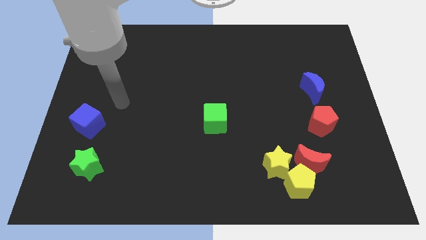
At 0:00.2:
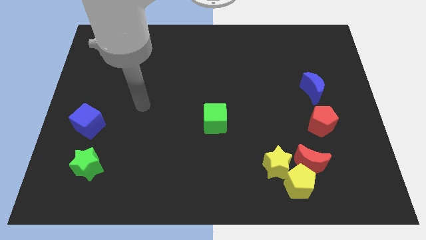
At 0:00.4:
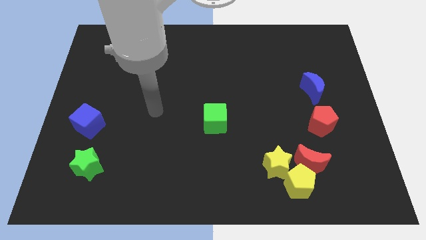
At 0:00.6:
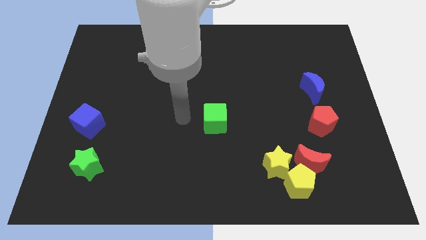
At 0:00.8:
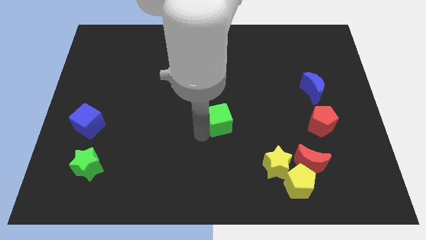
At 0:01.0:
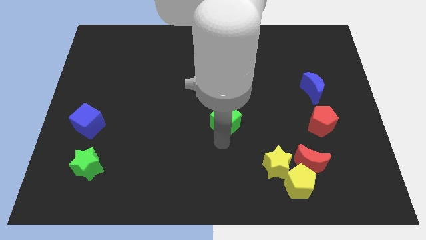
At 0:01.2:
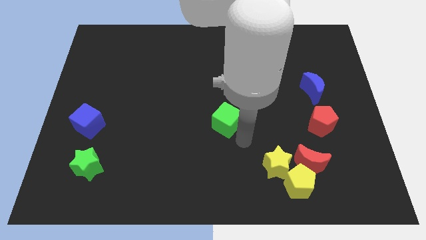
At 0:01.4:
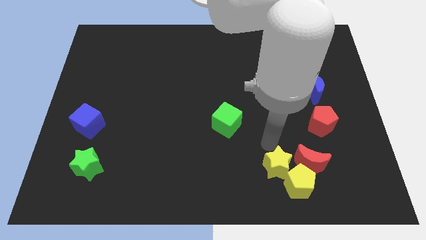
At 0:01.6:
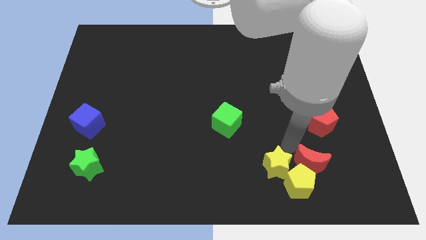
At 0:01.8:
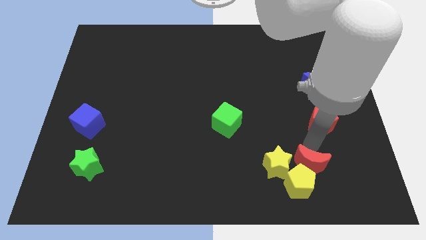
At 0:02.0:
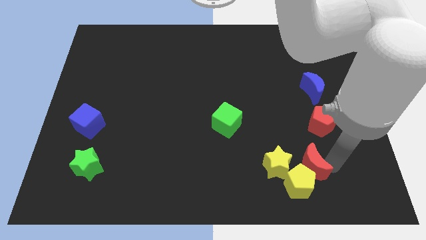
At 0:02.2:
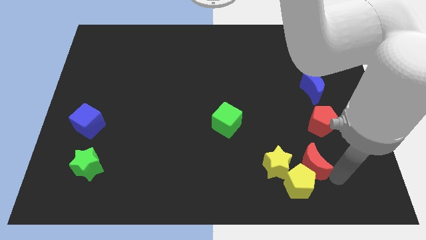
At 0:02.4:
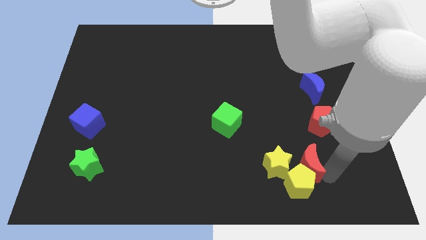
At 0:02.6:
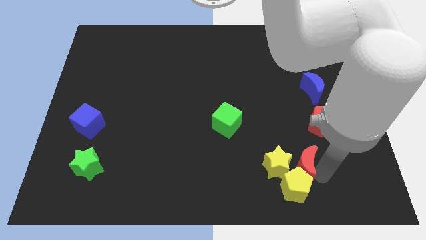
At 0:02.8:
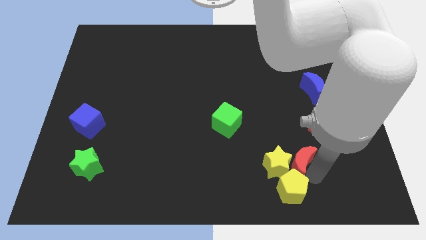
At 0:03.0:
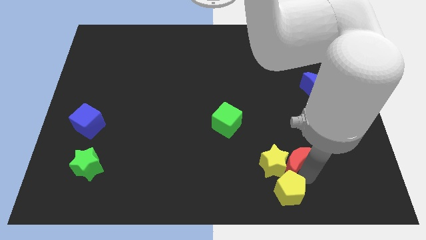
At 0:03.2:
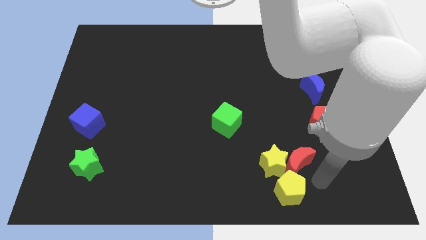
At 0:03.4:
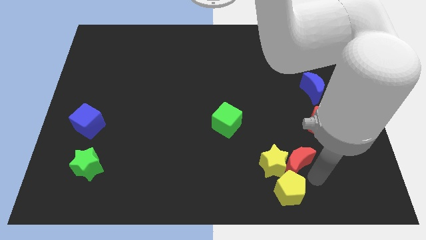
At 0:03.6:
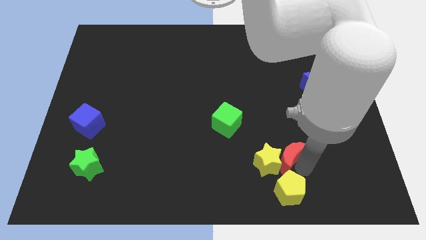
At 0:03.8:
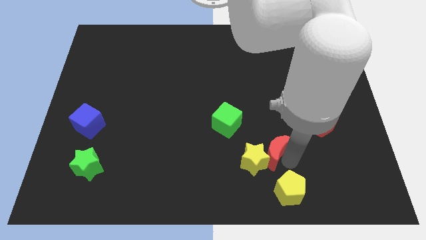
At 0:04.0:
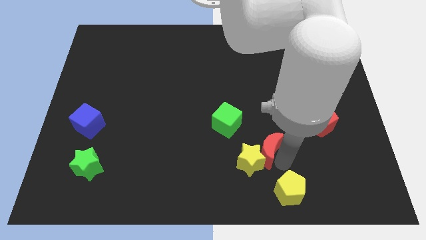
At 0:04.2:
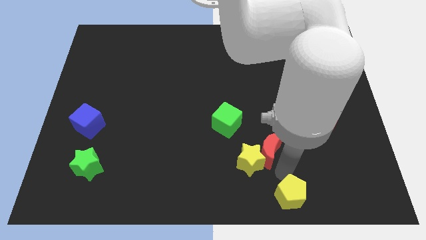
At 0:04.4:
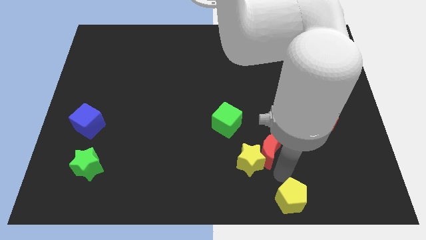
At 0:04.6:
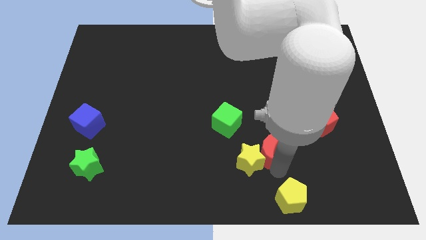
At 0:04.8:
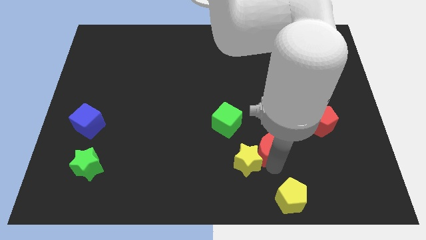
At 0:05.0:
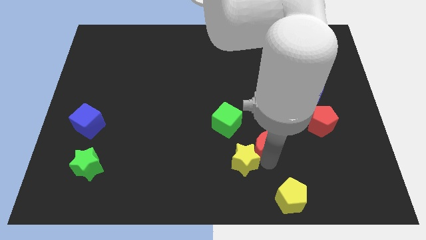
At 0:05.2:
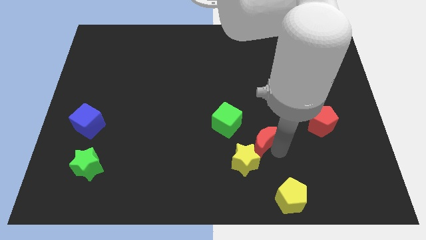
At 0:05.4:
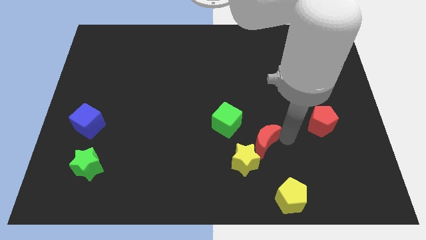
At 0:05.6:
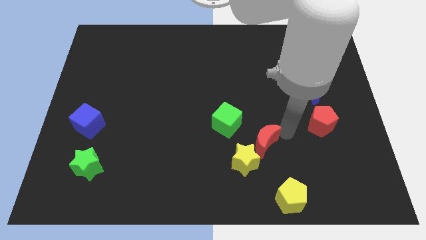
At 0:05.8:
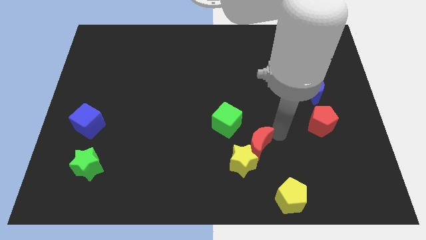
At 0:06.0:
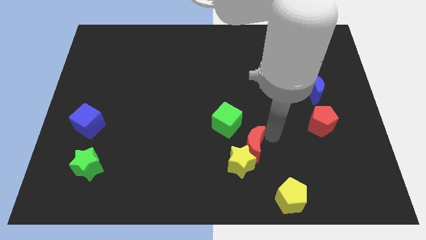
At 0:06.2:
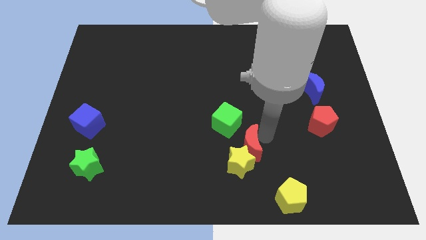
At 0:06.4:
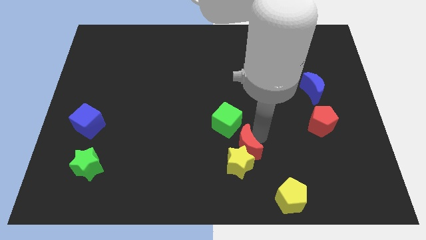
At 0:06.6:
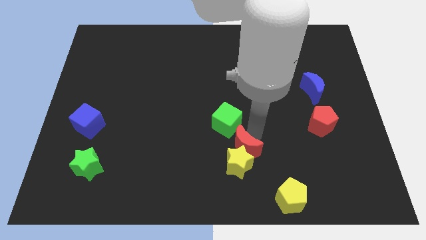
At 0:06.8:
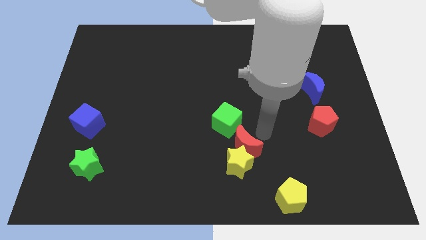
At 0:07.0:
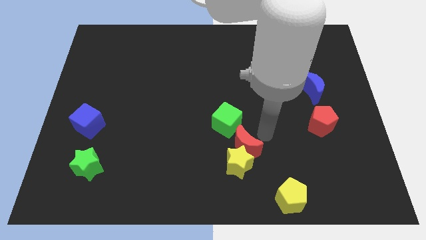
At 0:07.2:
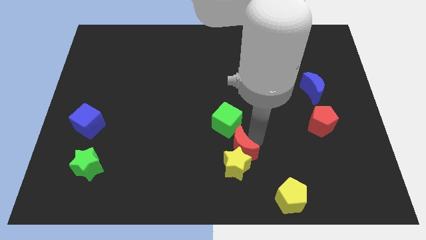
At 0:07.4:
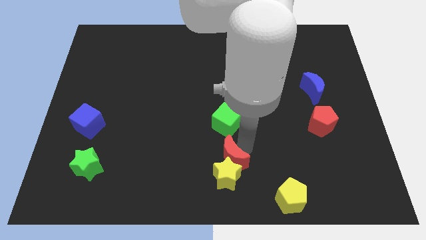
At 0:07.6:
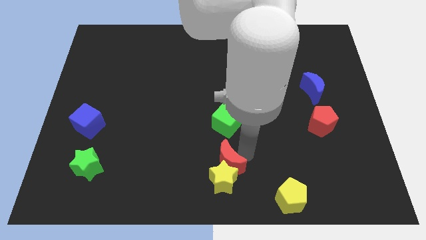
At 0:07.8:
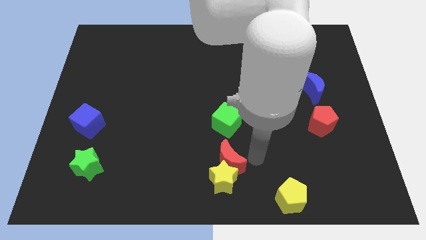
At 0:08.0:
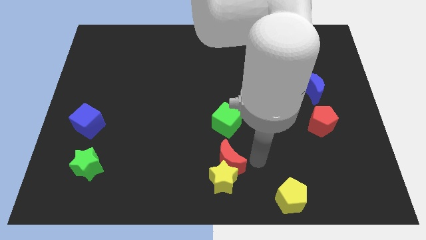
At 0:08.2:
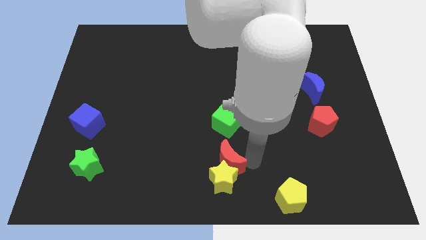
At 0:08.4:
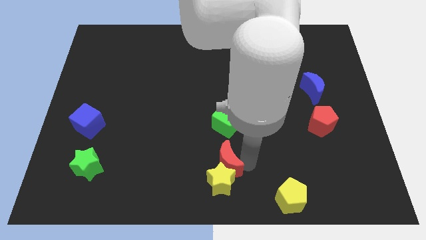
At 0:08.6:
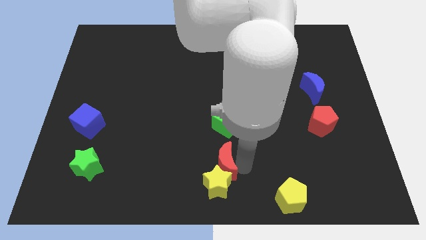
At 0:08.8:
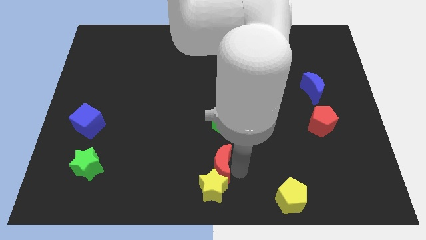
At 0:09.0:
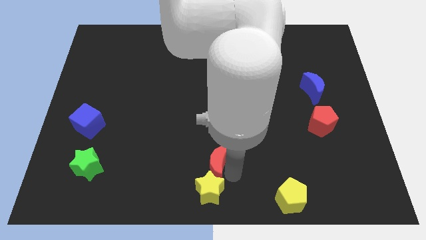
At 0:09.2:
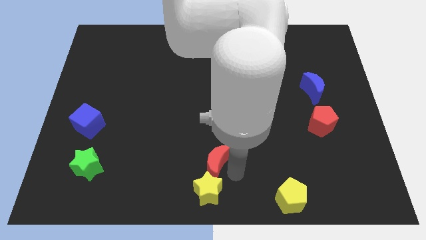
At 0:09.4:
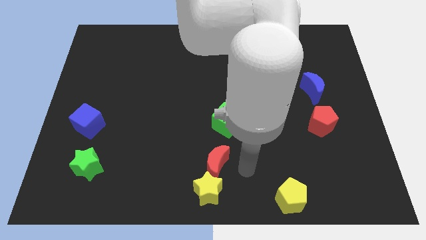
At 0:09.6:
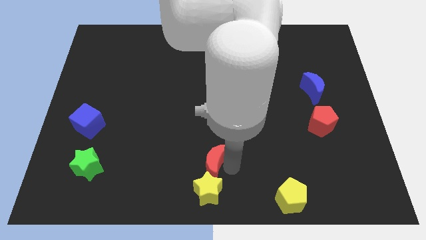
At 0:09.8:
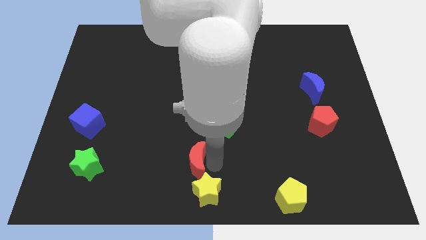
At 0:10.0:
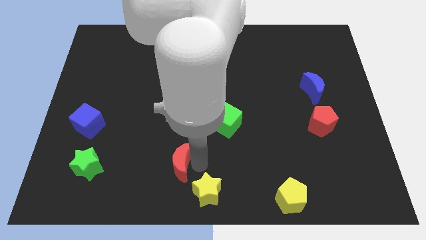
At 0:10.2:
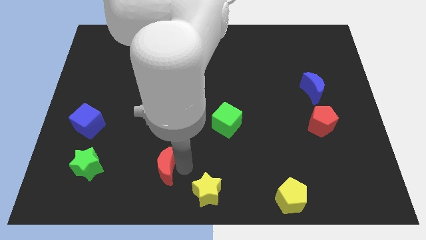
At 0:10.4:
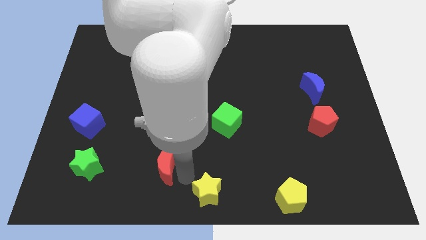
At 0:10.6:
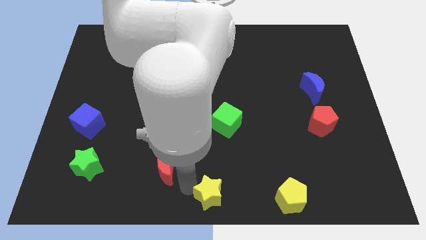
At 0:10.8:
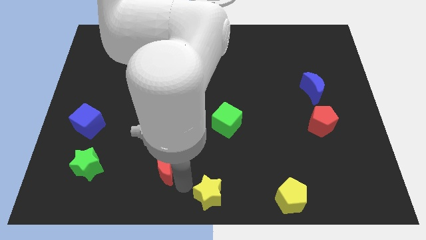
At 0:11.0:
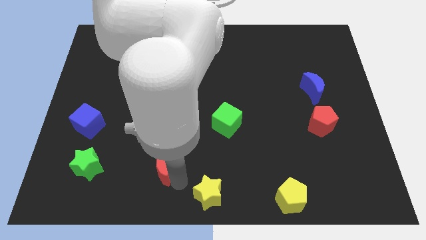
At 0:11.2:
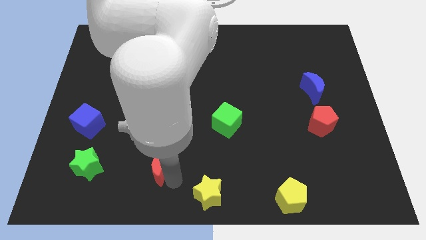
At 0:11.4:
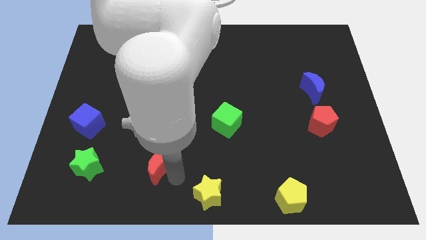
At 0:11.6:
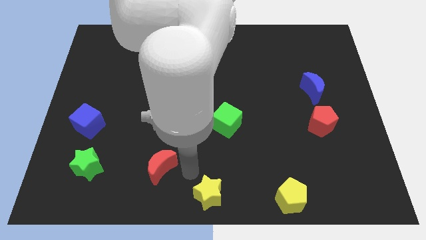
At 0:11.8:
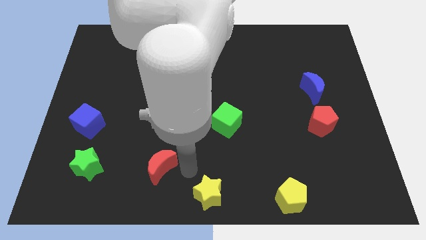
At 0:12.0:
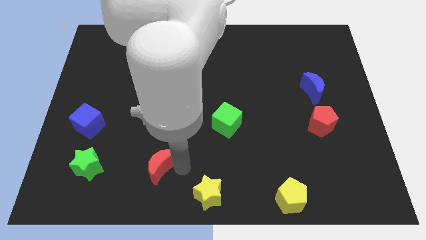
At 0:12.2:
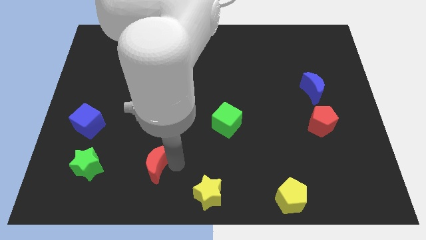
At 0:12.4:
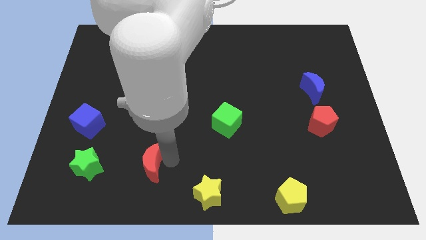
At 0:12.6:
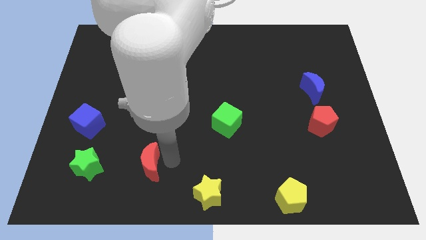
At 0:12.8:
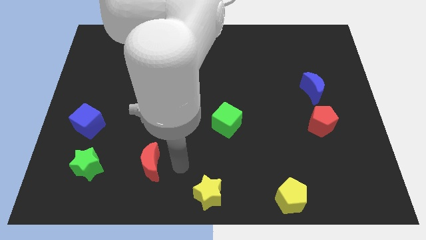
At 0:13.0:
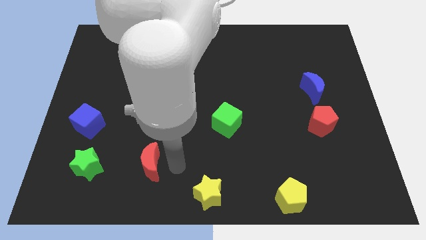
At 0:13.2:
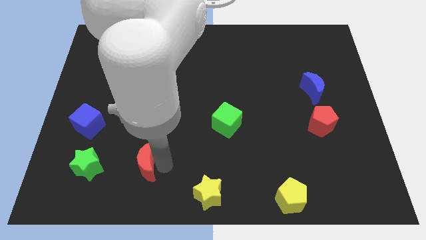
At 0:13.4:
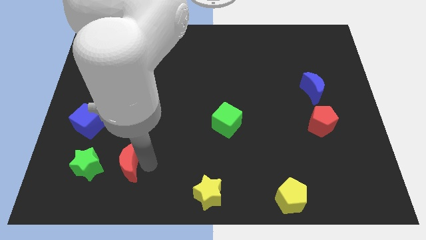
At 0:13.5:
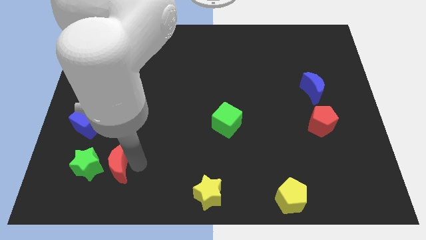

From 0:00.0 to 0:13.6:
move the red moon towards the green star

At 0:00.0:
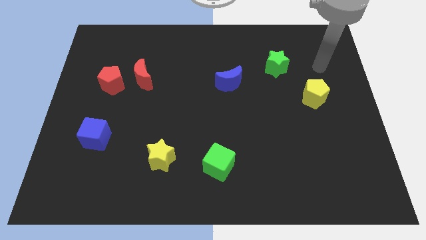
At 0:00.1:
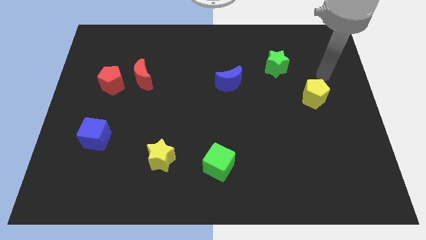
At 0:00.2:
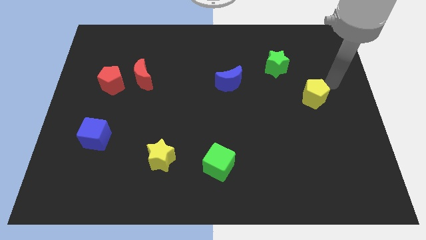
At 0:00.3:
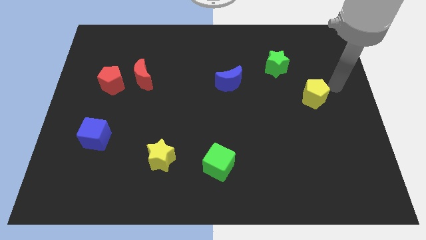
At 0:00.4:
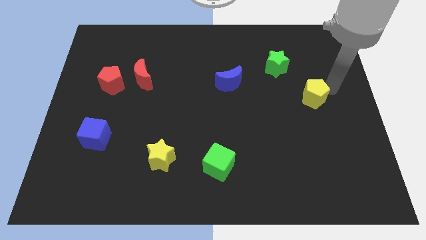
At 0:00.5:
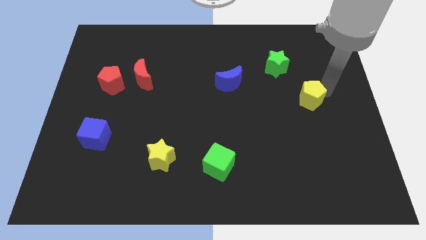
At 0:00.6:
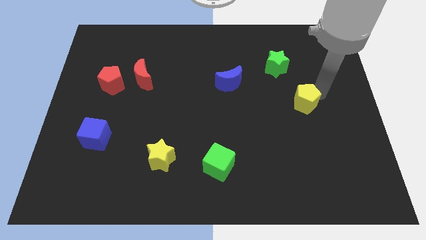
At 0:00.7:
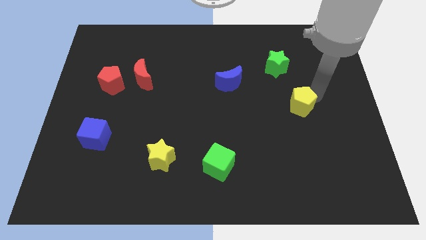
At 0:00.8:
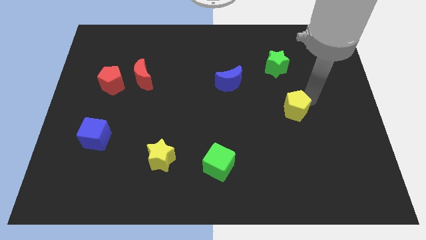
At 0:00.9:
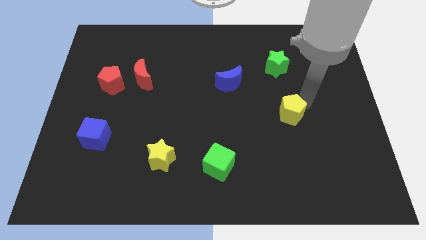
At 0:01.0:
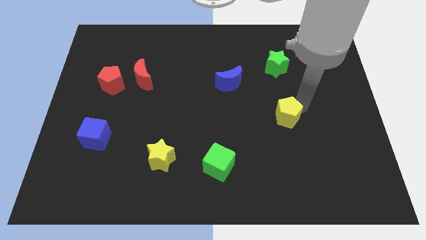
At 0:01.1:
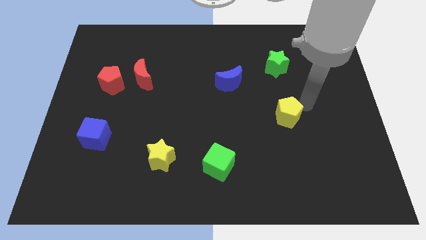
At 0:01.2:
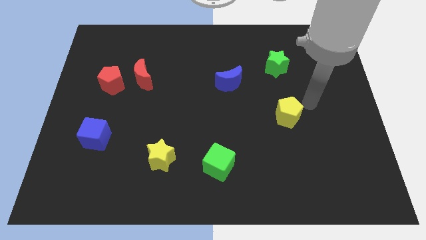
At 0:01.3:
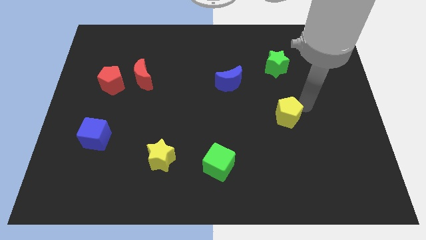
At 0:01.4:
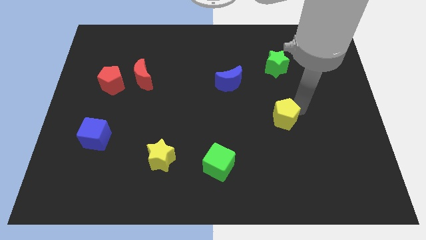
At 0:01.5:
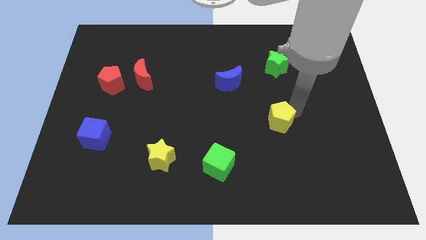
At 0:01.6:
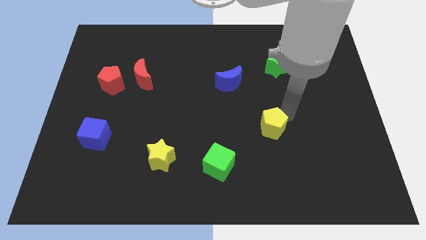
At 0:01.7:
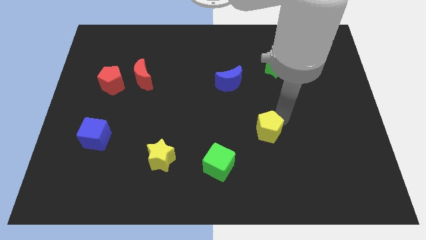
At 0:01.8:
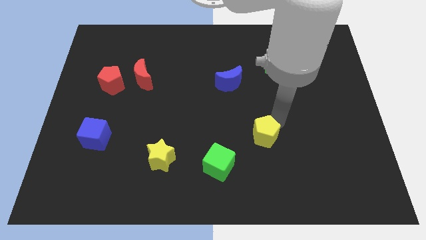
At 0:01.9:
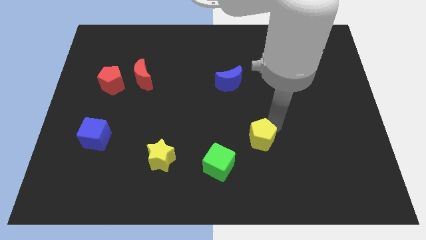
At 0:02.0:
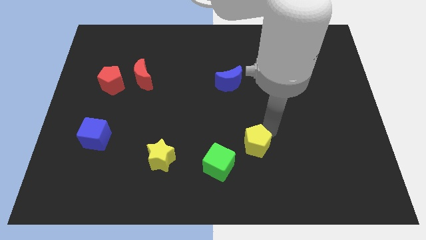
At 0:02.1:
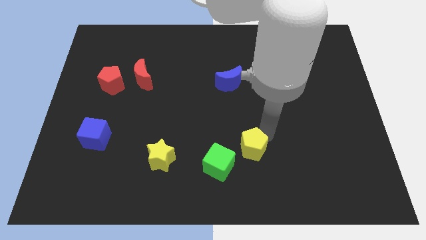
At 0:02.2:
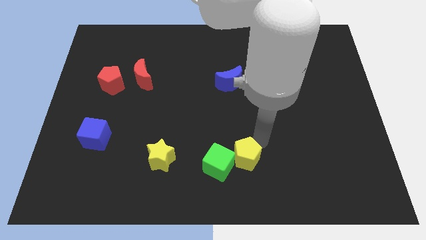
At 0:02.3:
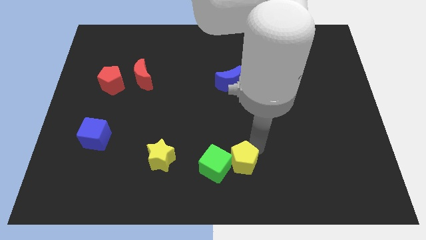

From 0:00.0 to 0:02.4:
move the yellow pentagon next to the green cube
